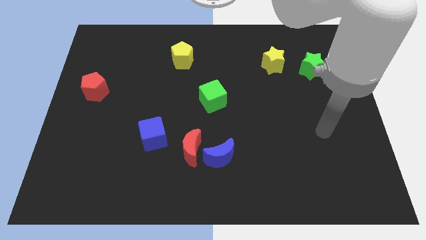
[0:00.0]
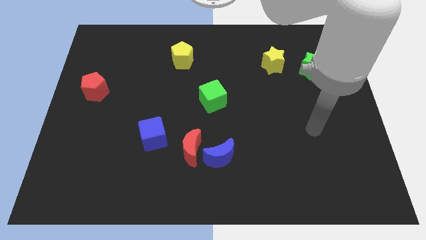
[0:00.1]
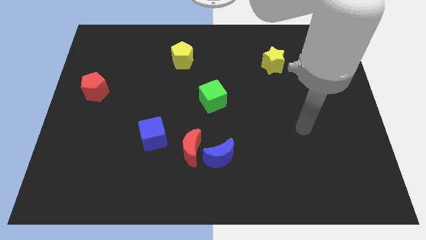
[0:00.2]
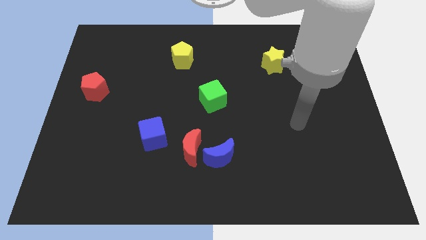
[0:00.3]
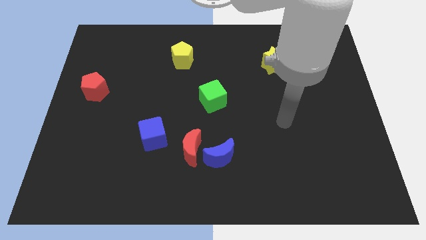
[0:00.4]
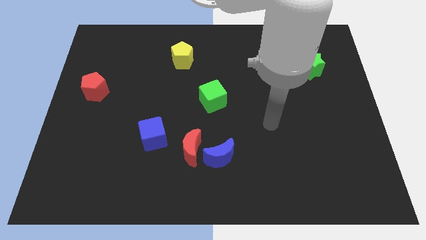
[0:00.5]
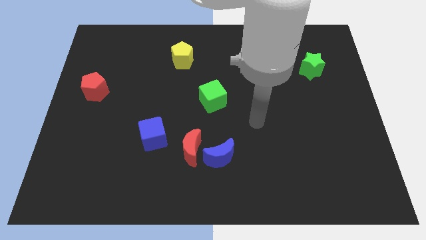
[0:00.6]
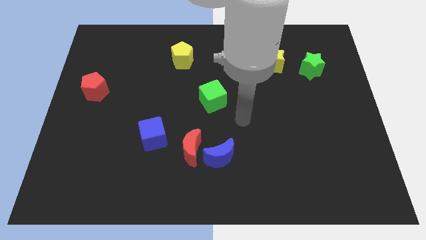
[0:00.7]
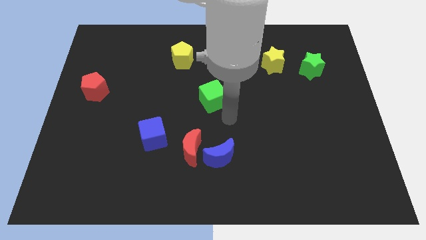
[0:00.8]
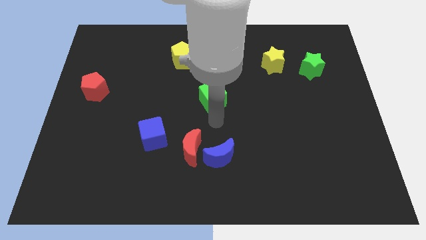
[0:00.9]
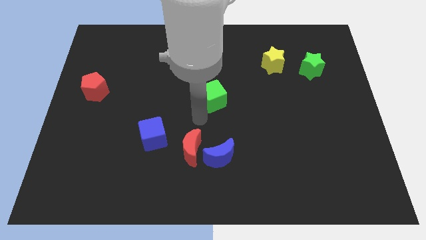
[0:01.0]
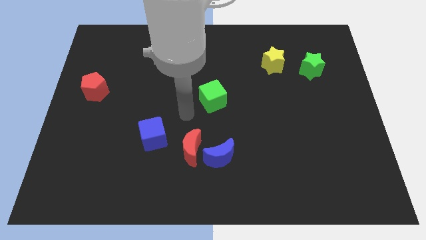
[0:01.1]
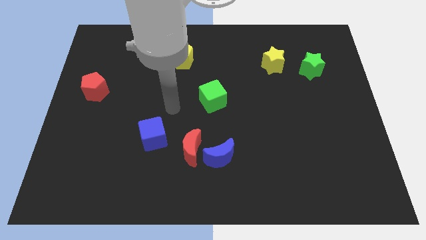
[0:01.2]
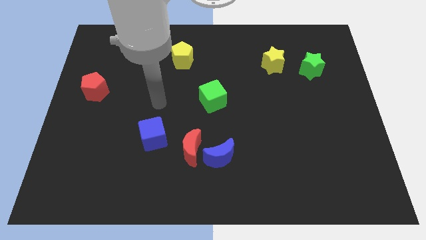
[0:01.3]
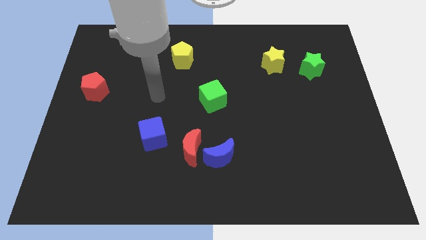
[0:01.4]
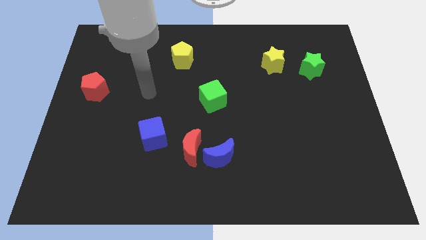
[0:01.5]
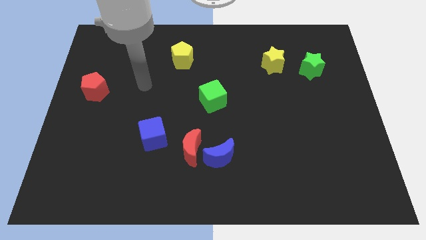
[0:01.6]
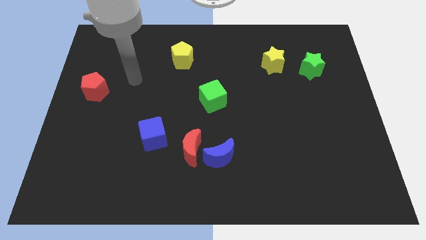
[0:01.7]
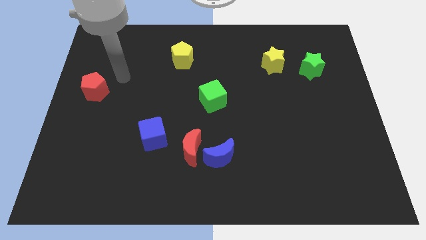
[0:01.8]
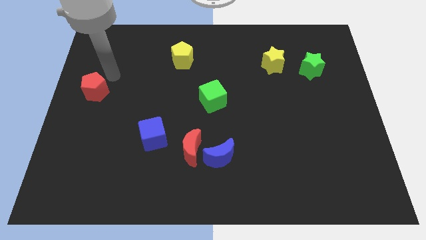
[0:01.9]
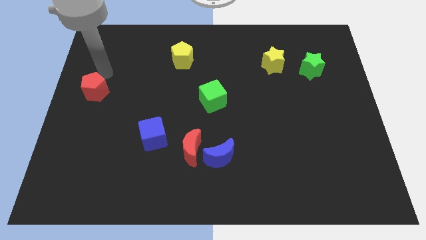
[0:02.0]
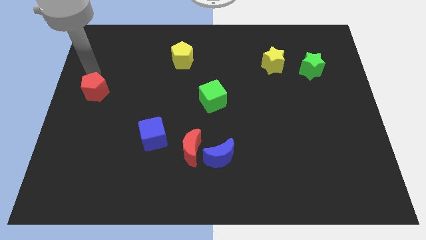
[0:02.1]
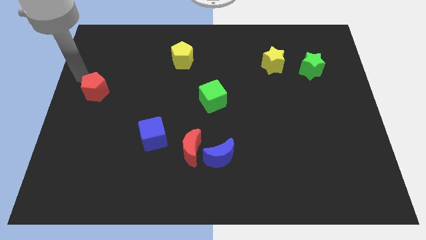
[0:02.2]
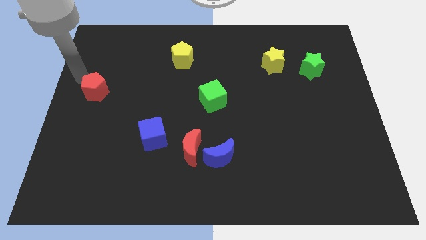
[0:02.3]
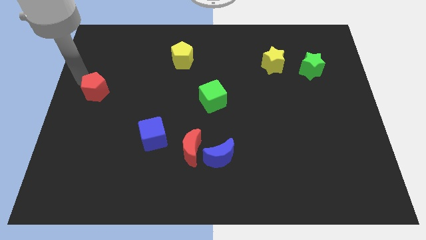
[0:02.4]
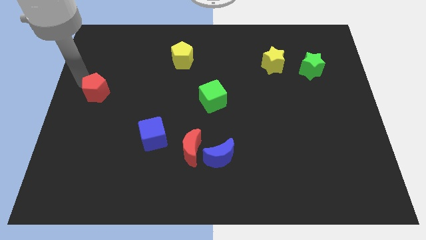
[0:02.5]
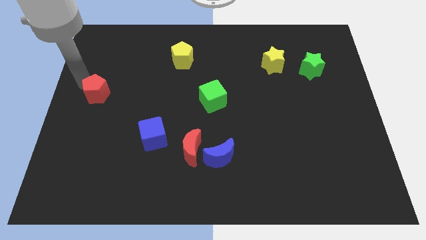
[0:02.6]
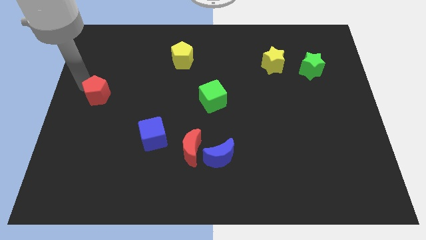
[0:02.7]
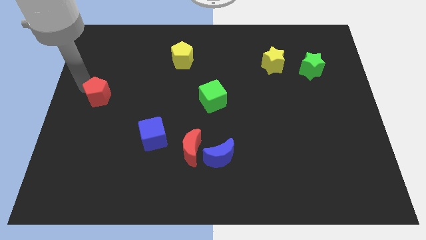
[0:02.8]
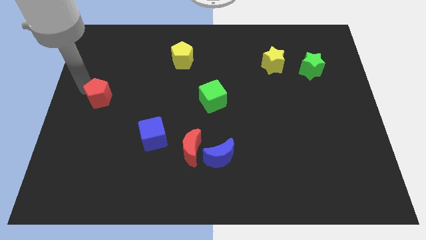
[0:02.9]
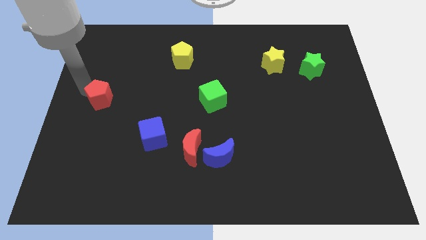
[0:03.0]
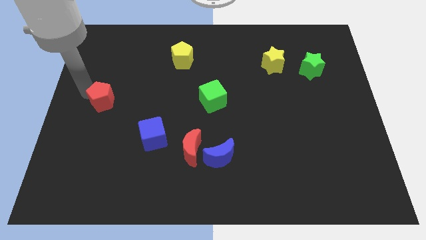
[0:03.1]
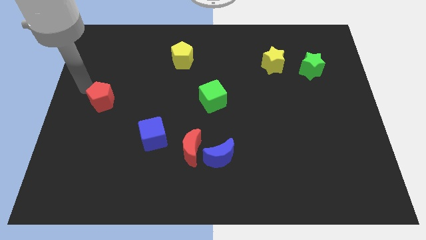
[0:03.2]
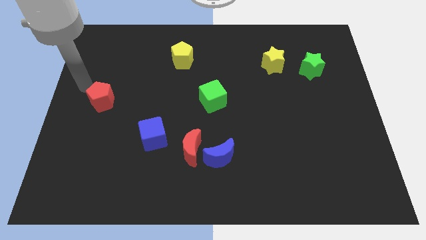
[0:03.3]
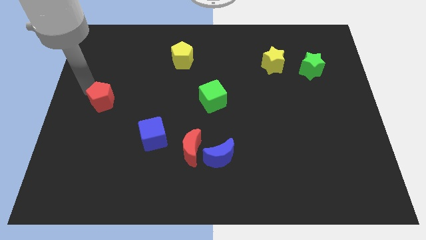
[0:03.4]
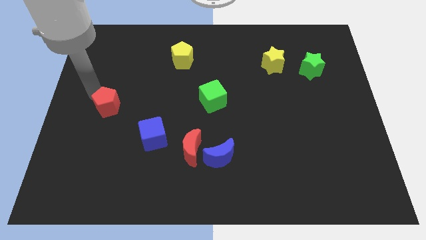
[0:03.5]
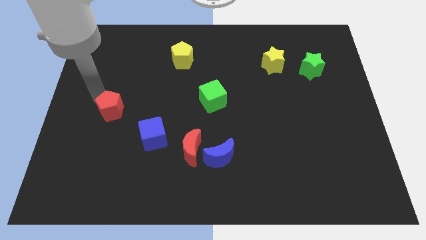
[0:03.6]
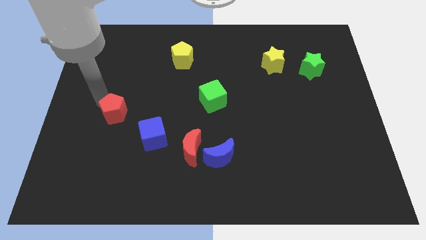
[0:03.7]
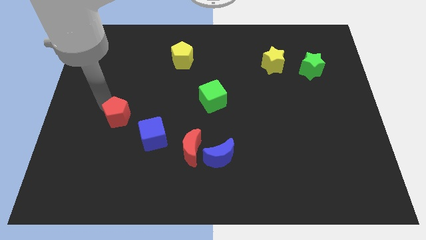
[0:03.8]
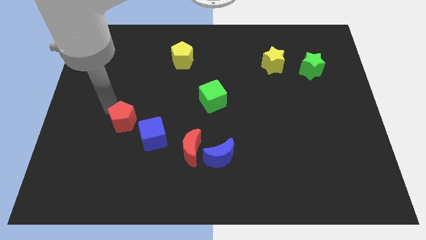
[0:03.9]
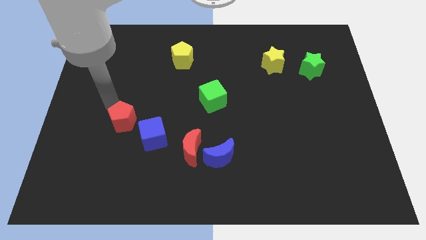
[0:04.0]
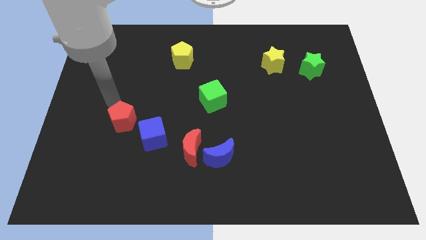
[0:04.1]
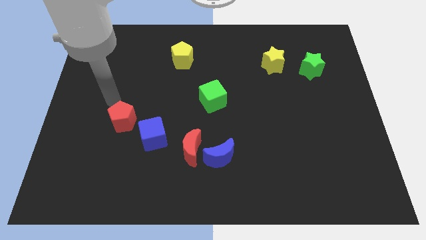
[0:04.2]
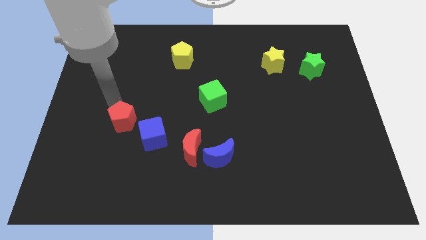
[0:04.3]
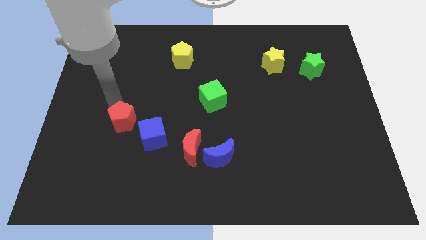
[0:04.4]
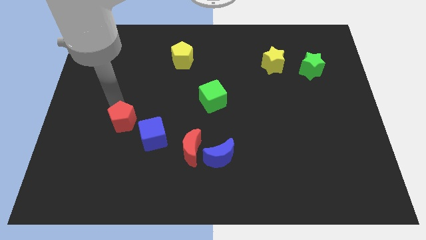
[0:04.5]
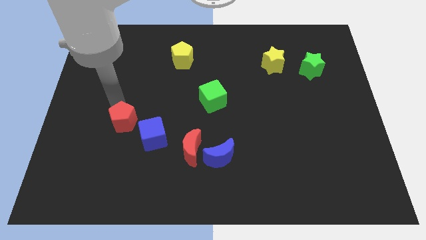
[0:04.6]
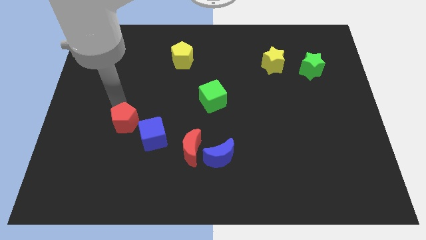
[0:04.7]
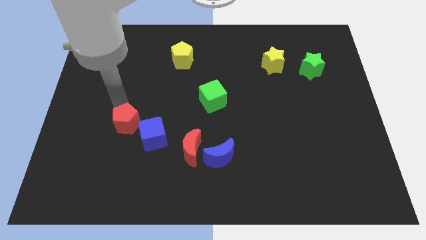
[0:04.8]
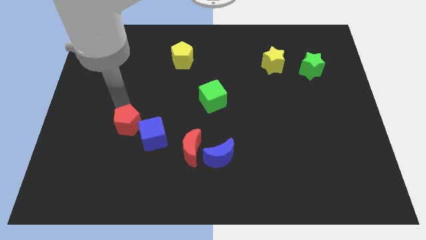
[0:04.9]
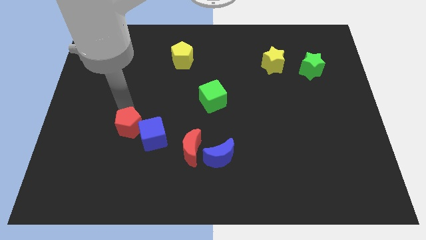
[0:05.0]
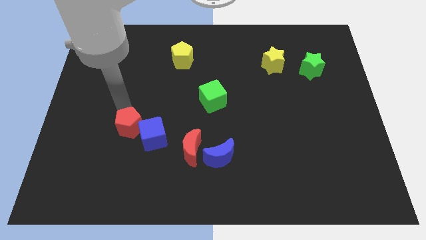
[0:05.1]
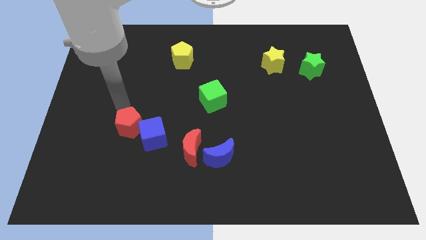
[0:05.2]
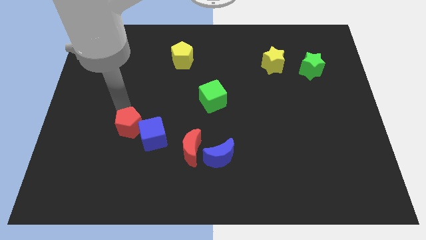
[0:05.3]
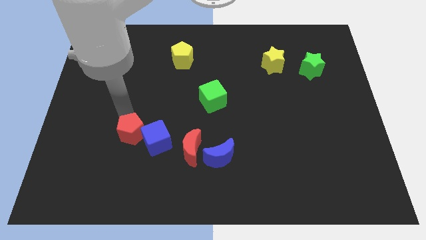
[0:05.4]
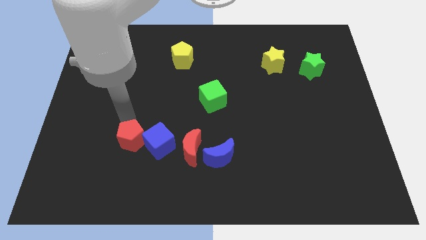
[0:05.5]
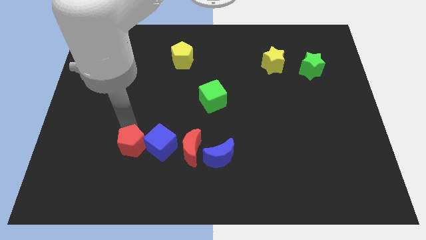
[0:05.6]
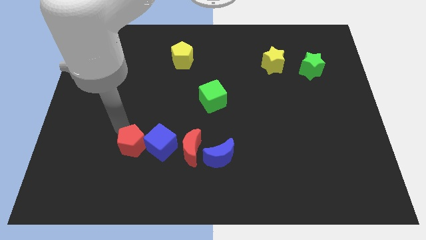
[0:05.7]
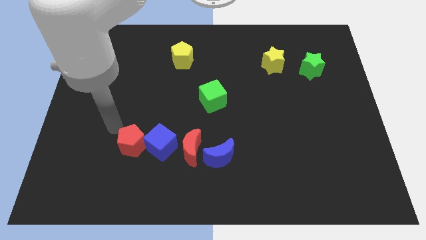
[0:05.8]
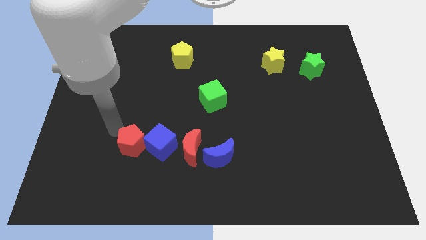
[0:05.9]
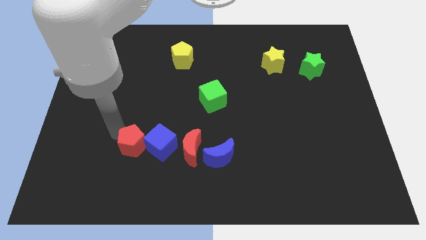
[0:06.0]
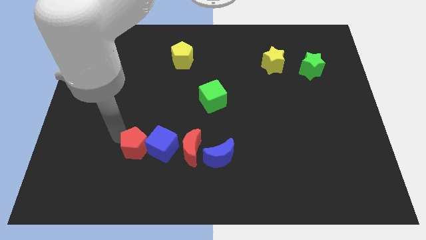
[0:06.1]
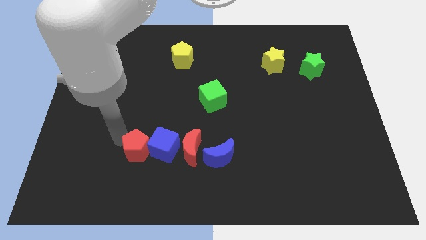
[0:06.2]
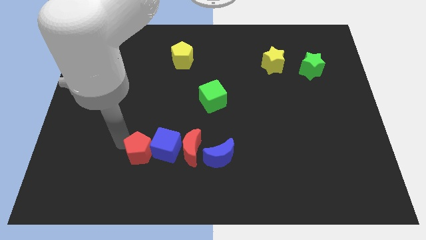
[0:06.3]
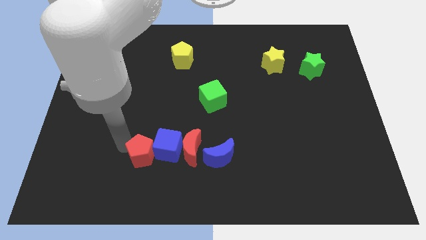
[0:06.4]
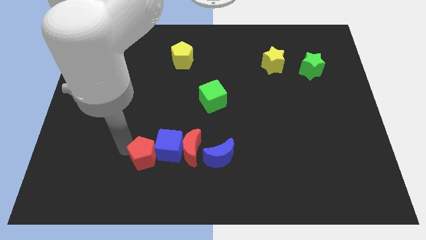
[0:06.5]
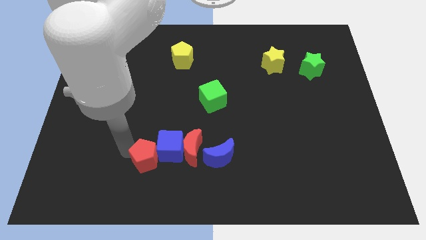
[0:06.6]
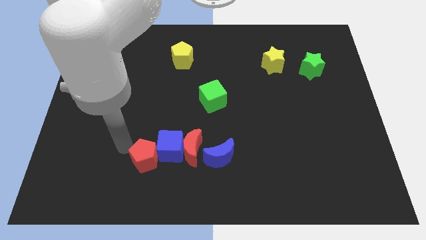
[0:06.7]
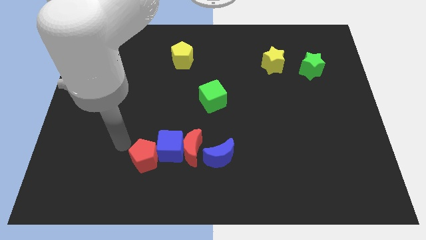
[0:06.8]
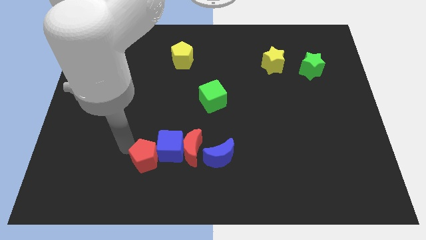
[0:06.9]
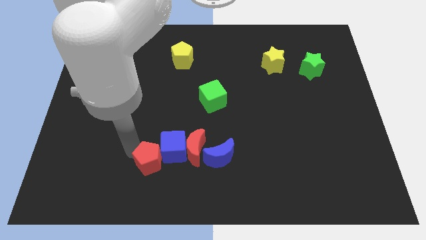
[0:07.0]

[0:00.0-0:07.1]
put the red pentagon to the bottom left of the red moon
